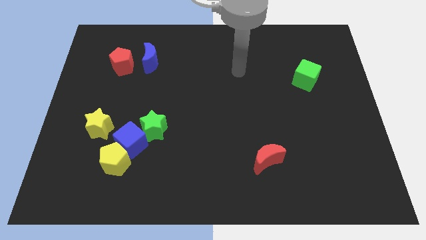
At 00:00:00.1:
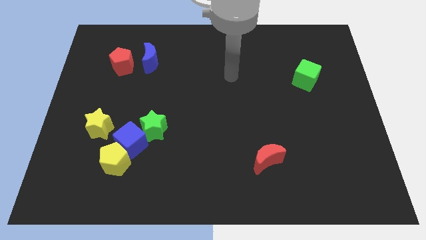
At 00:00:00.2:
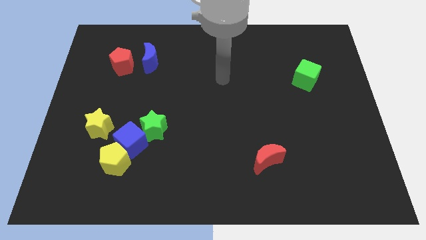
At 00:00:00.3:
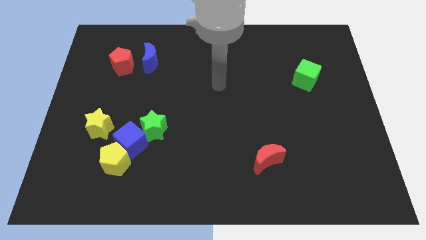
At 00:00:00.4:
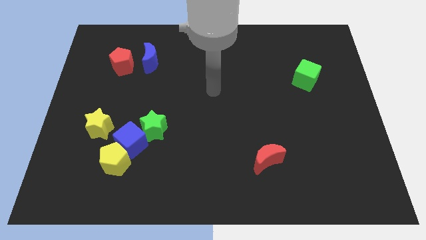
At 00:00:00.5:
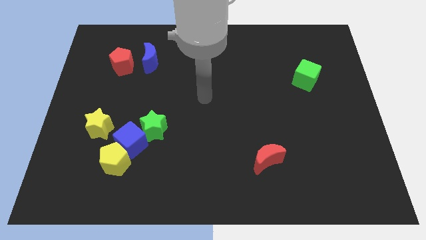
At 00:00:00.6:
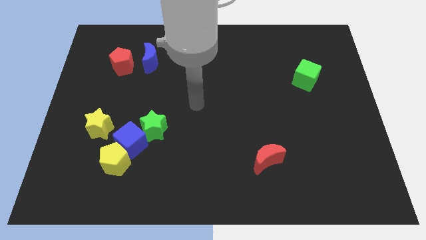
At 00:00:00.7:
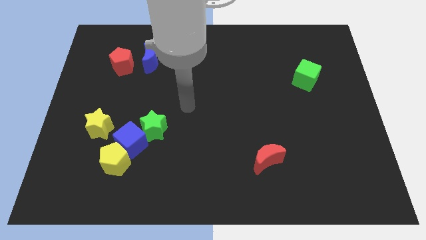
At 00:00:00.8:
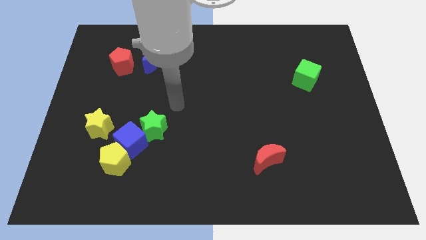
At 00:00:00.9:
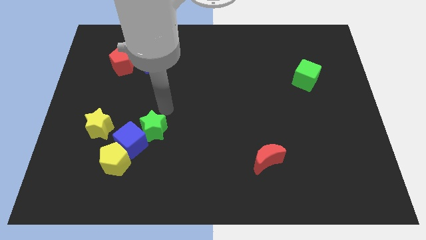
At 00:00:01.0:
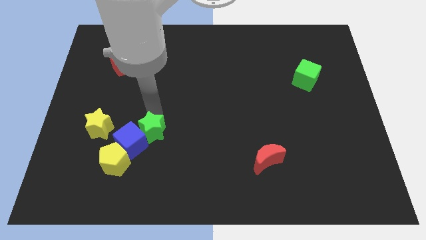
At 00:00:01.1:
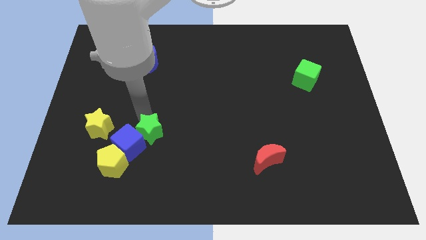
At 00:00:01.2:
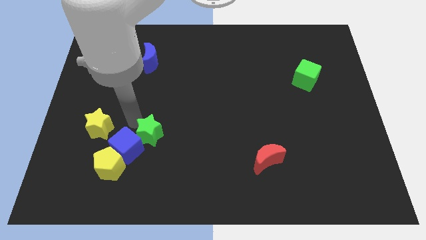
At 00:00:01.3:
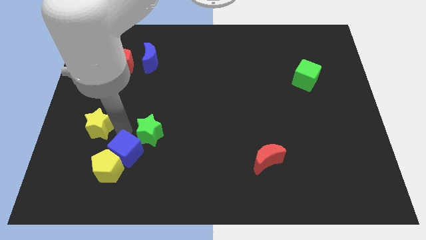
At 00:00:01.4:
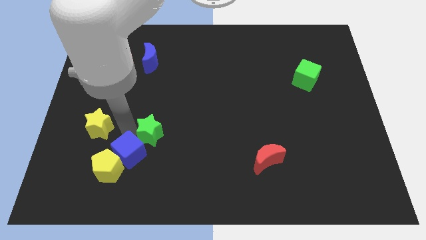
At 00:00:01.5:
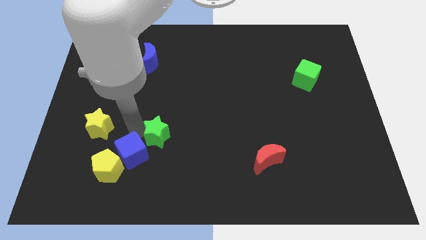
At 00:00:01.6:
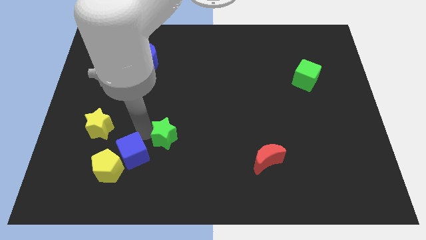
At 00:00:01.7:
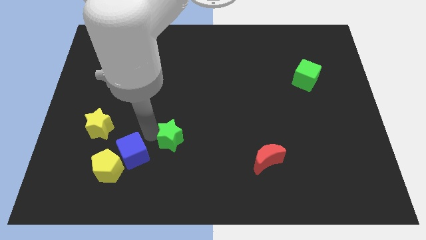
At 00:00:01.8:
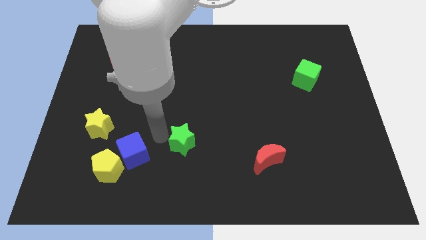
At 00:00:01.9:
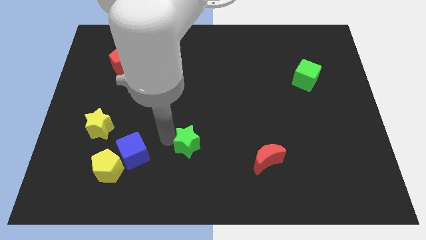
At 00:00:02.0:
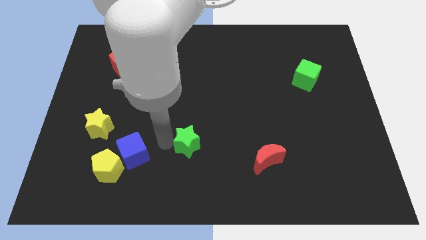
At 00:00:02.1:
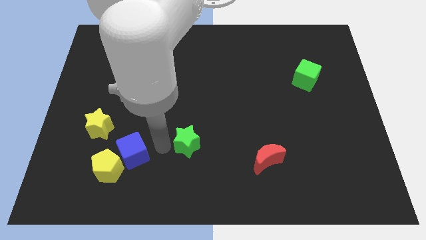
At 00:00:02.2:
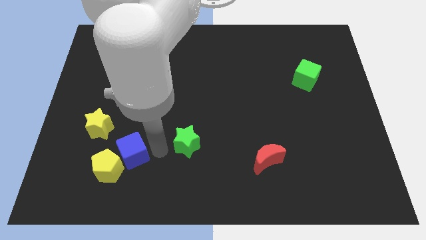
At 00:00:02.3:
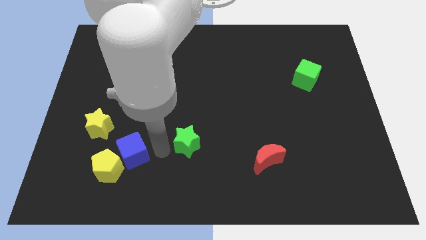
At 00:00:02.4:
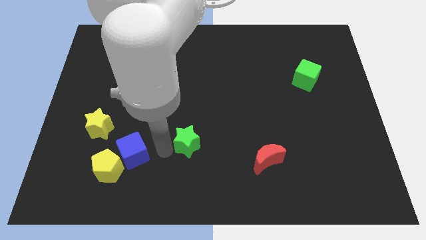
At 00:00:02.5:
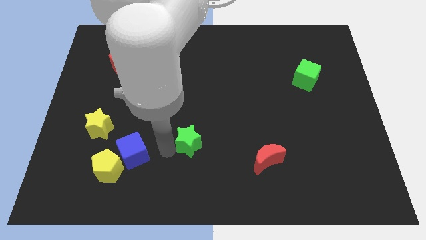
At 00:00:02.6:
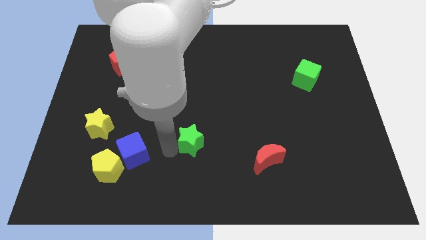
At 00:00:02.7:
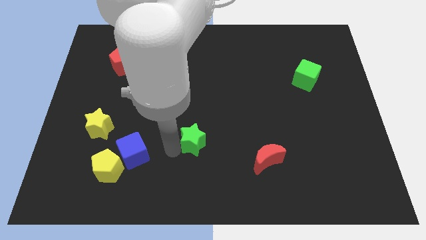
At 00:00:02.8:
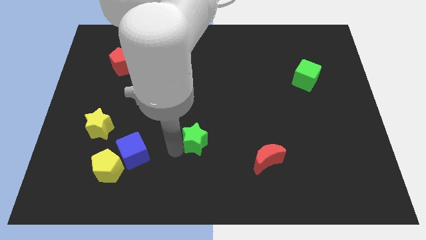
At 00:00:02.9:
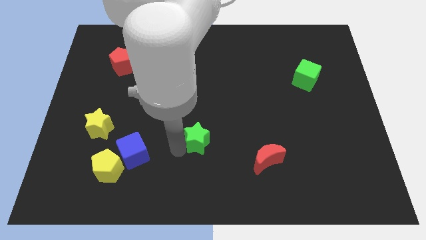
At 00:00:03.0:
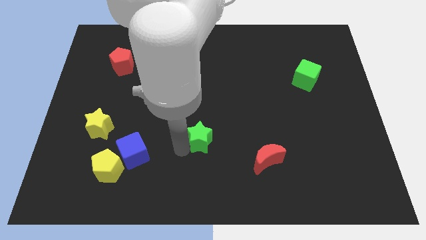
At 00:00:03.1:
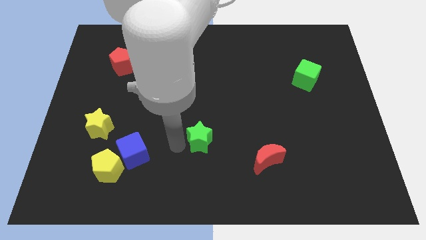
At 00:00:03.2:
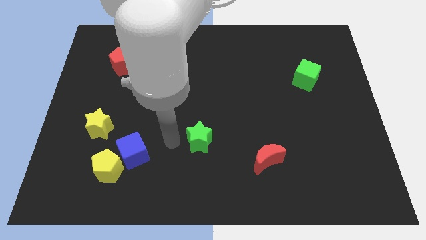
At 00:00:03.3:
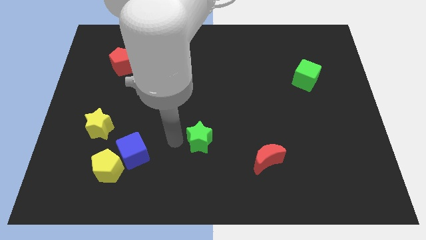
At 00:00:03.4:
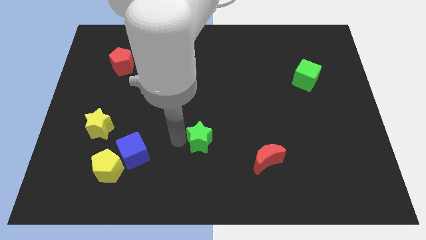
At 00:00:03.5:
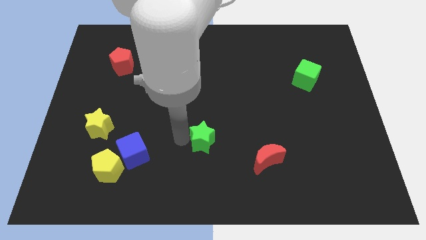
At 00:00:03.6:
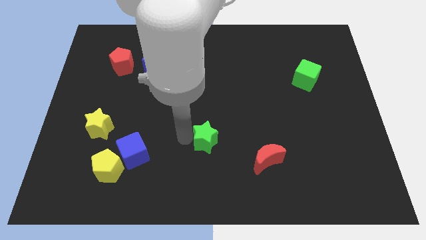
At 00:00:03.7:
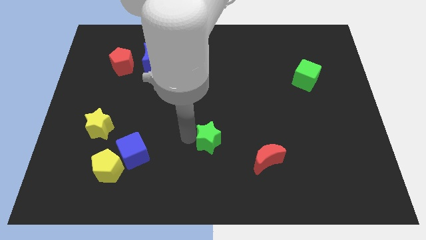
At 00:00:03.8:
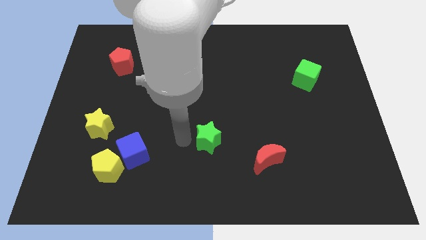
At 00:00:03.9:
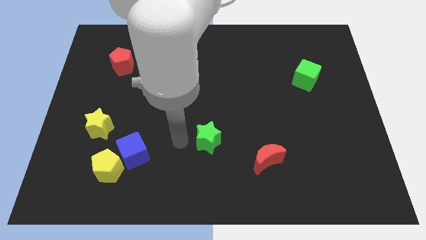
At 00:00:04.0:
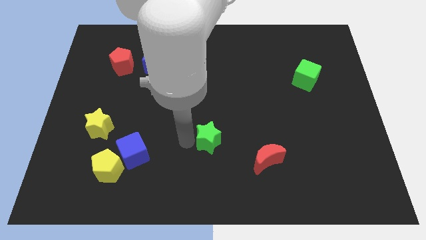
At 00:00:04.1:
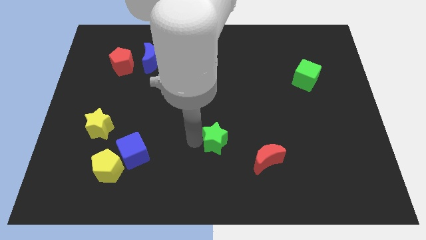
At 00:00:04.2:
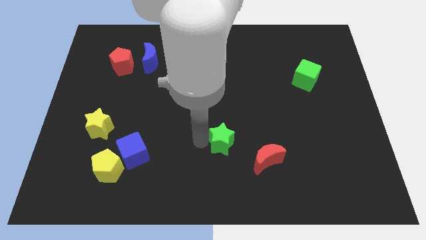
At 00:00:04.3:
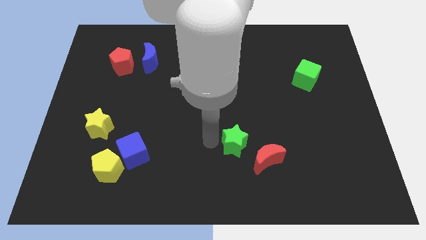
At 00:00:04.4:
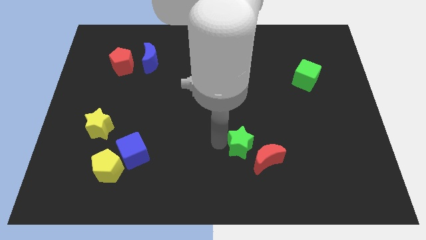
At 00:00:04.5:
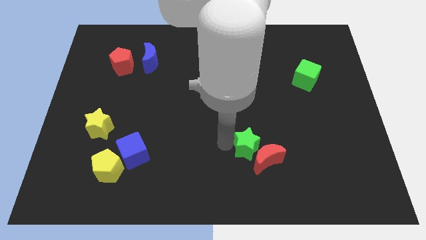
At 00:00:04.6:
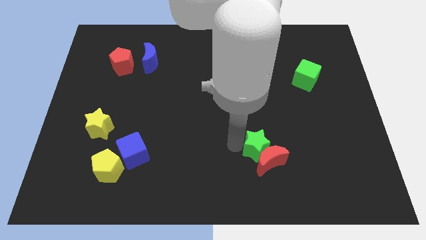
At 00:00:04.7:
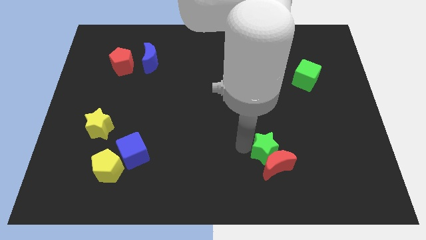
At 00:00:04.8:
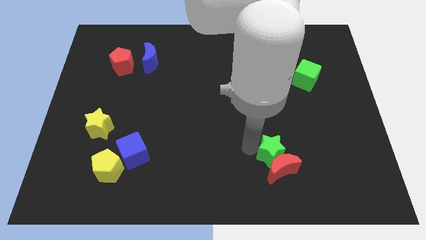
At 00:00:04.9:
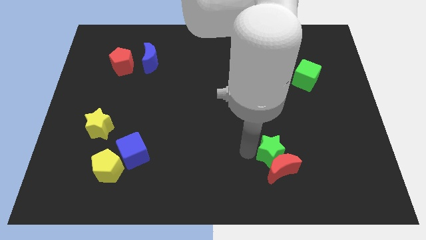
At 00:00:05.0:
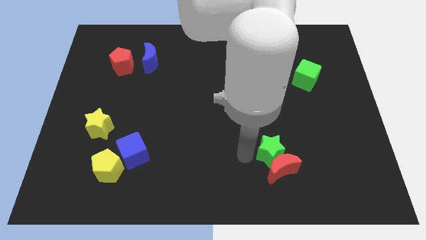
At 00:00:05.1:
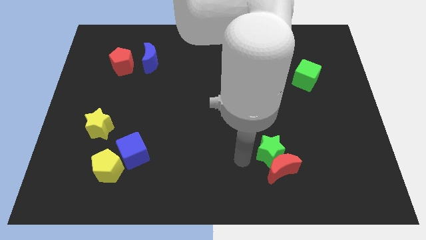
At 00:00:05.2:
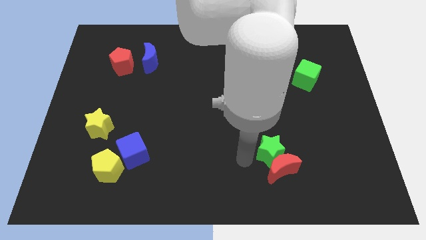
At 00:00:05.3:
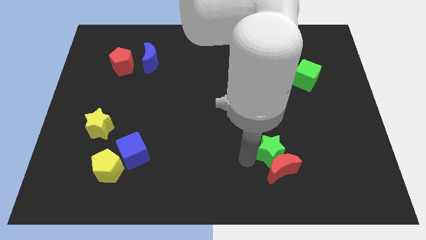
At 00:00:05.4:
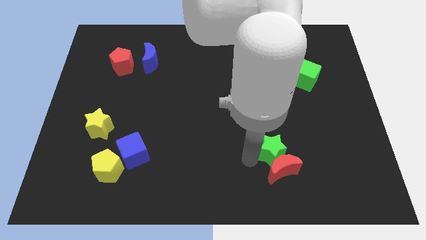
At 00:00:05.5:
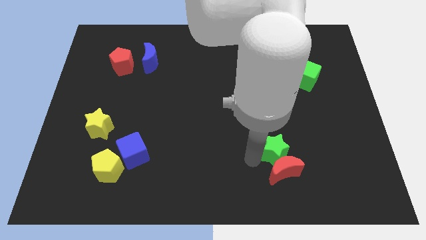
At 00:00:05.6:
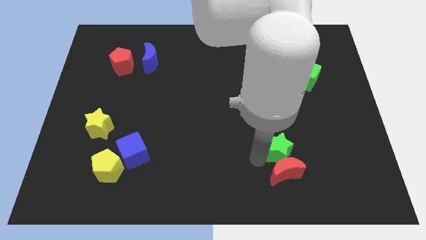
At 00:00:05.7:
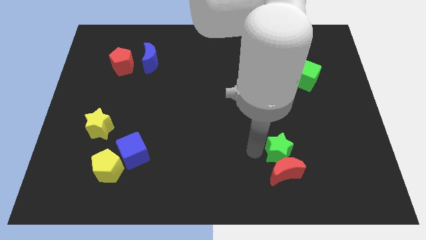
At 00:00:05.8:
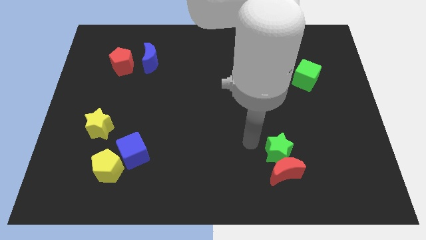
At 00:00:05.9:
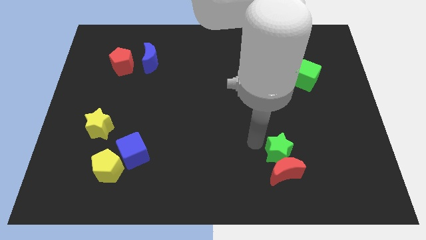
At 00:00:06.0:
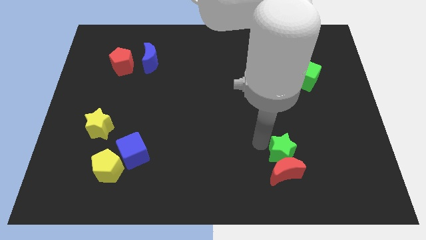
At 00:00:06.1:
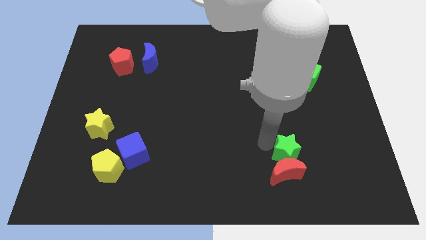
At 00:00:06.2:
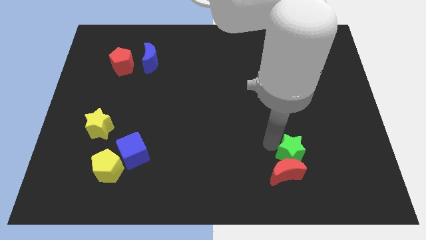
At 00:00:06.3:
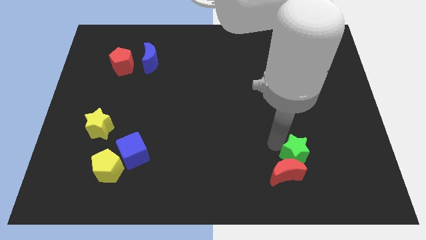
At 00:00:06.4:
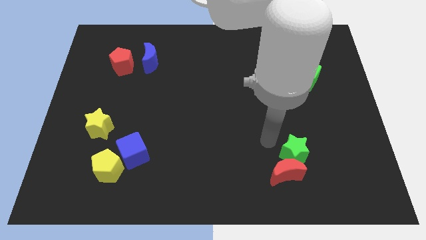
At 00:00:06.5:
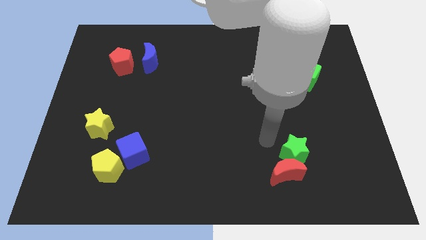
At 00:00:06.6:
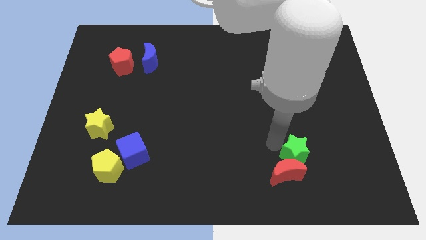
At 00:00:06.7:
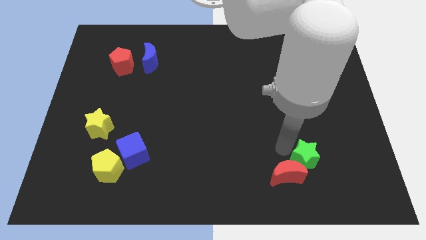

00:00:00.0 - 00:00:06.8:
slide the green star to the right side of the red moon

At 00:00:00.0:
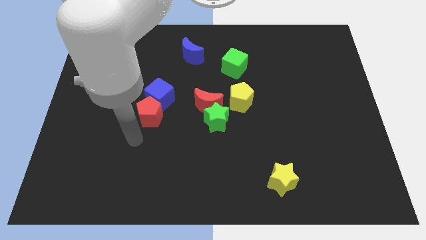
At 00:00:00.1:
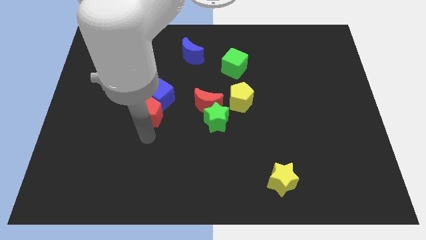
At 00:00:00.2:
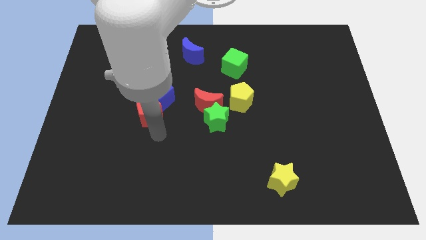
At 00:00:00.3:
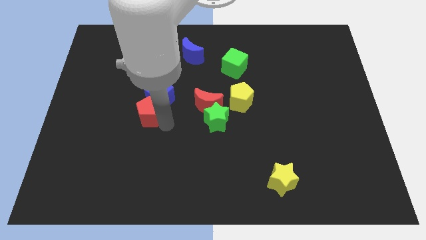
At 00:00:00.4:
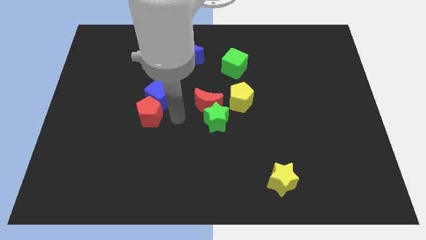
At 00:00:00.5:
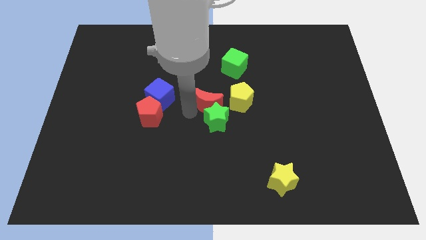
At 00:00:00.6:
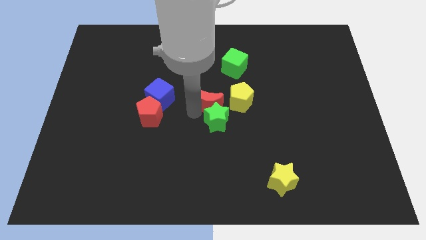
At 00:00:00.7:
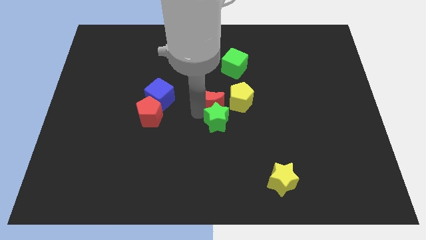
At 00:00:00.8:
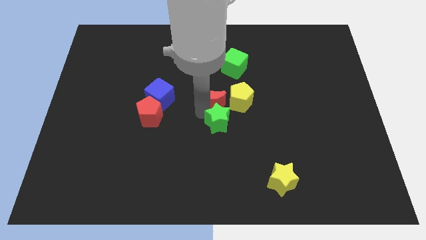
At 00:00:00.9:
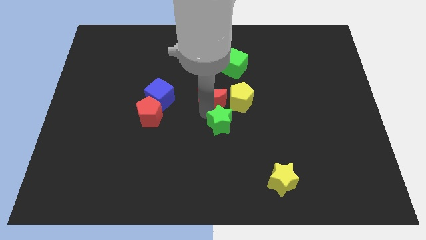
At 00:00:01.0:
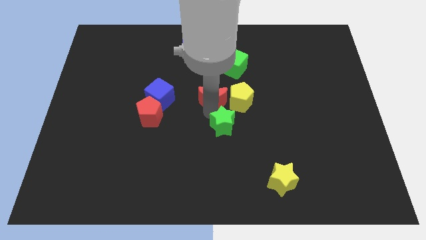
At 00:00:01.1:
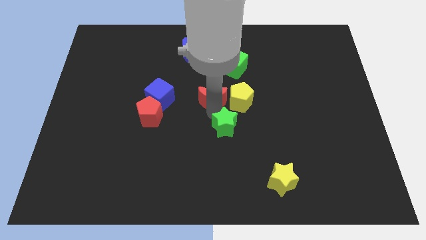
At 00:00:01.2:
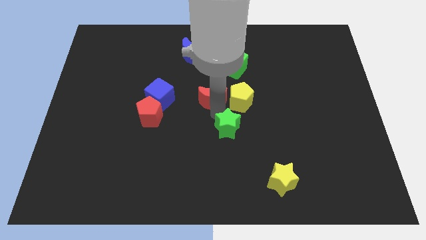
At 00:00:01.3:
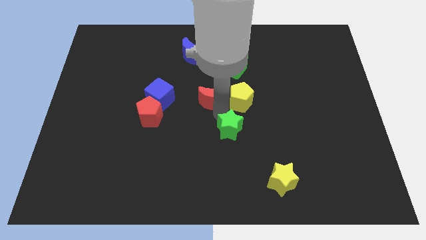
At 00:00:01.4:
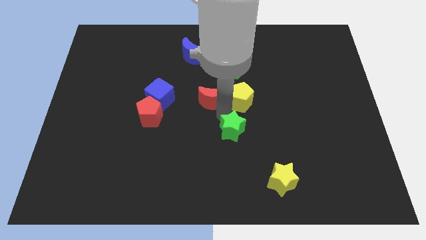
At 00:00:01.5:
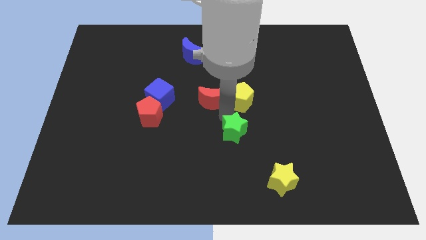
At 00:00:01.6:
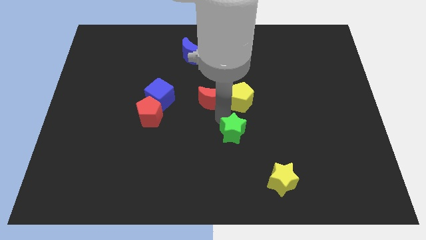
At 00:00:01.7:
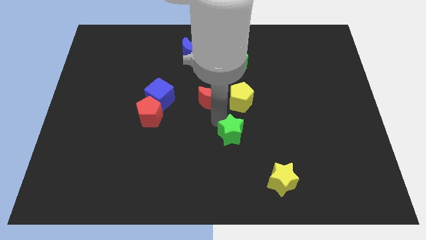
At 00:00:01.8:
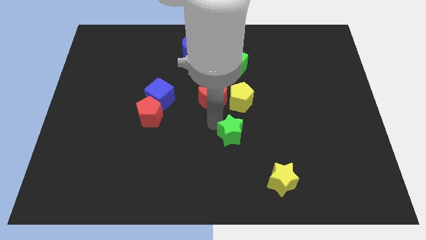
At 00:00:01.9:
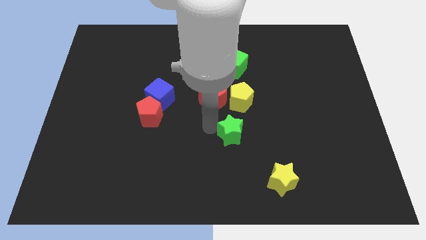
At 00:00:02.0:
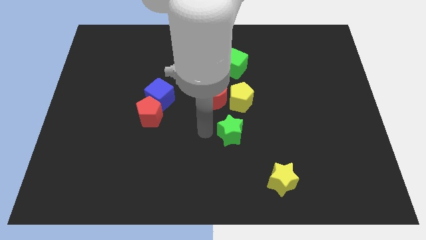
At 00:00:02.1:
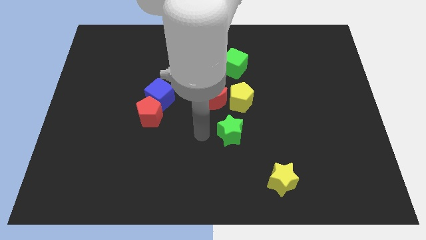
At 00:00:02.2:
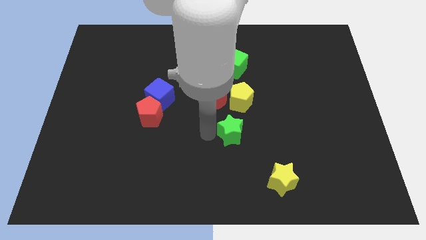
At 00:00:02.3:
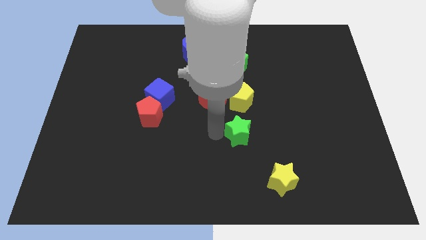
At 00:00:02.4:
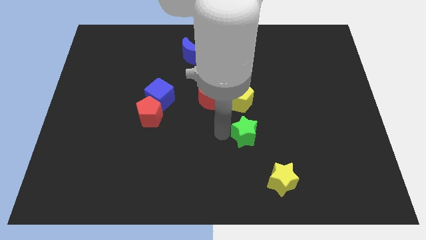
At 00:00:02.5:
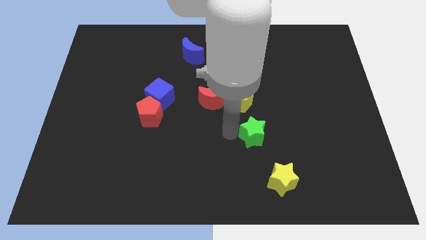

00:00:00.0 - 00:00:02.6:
put the green star above the yellow star
